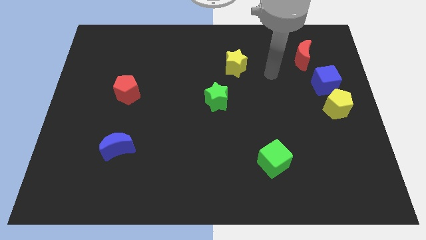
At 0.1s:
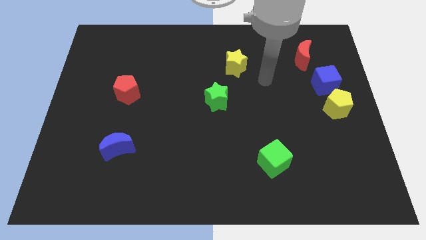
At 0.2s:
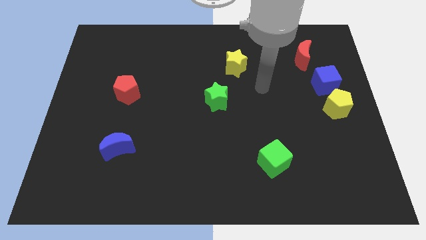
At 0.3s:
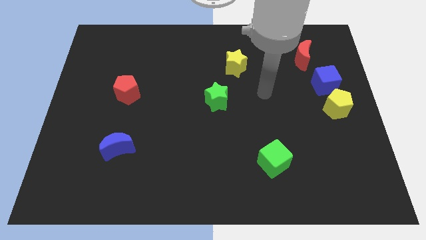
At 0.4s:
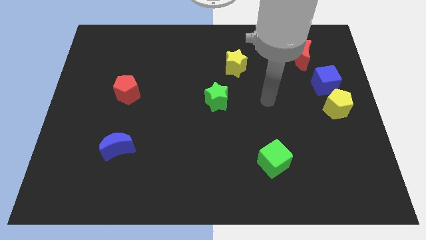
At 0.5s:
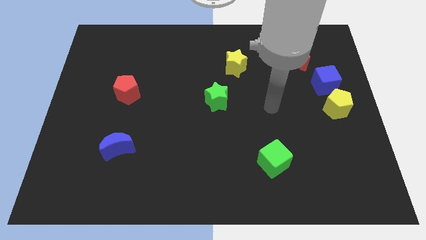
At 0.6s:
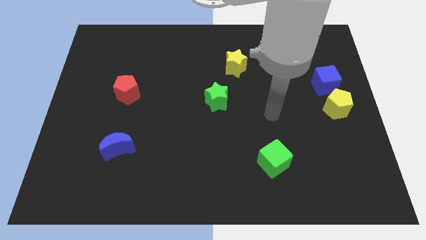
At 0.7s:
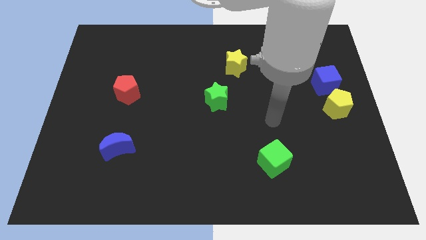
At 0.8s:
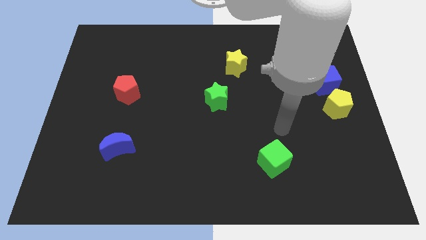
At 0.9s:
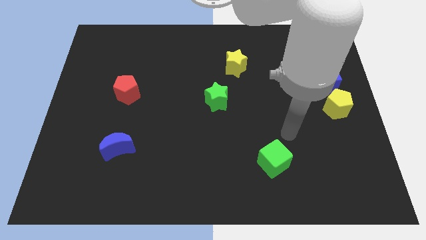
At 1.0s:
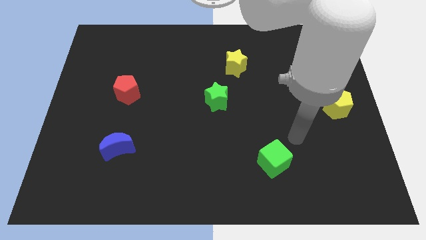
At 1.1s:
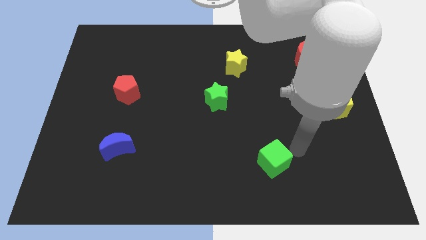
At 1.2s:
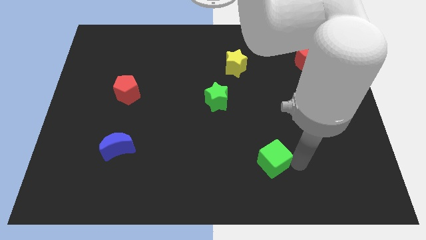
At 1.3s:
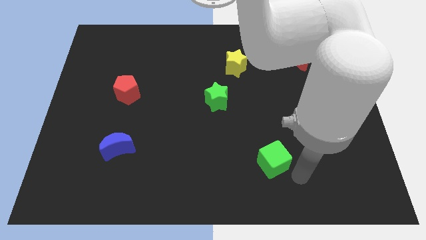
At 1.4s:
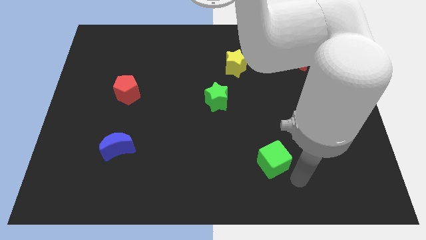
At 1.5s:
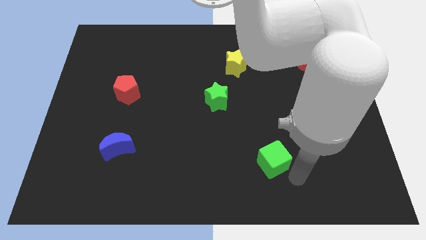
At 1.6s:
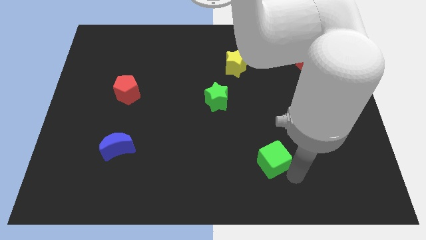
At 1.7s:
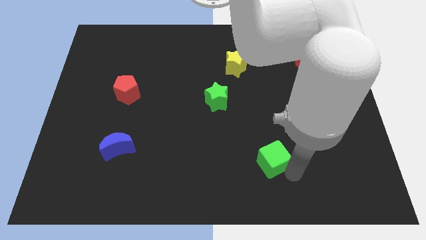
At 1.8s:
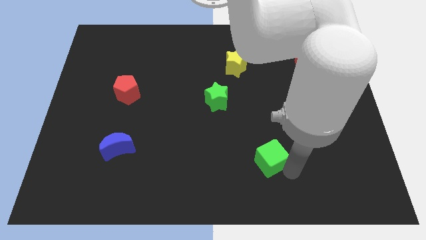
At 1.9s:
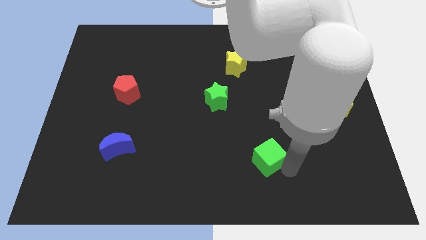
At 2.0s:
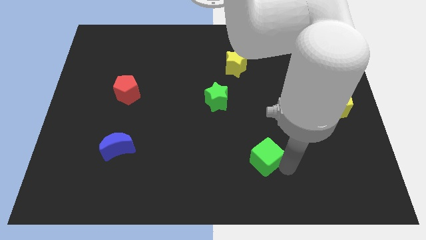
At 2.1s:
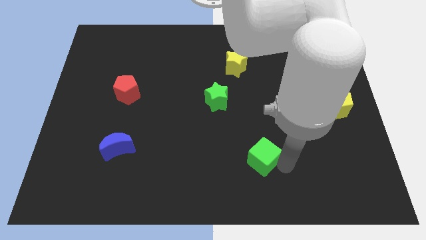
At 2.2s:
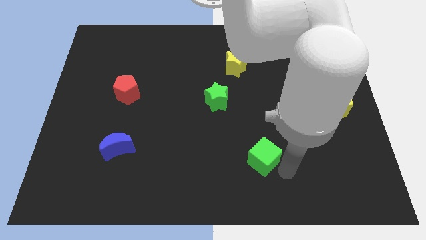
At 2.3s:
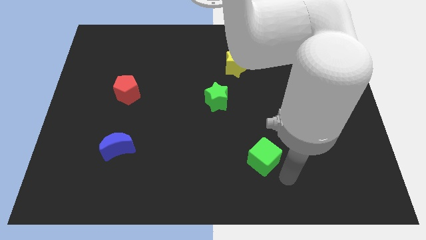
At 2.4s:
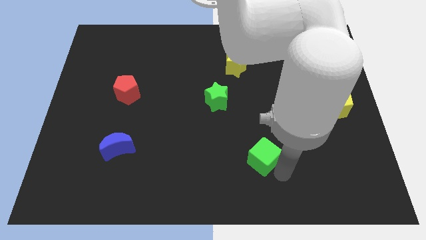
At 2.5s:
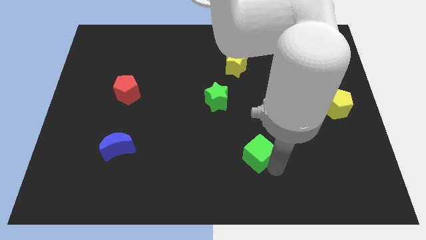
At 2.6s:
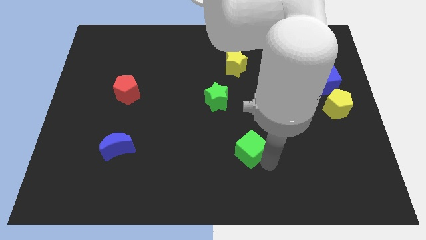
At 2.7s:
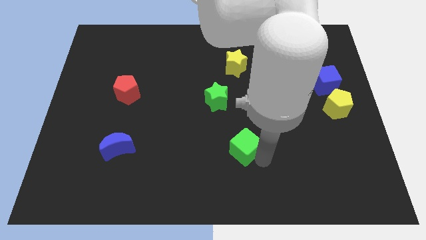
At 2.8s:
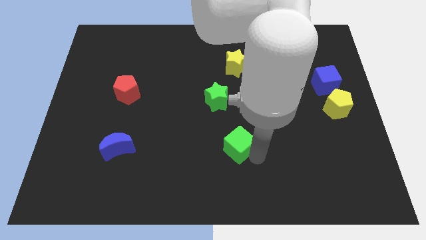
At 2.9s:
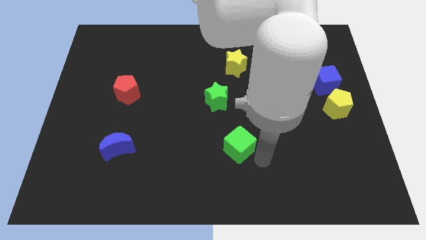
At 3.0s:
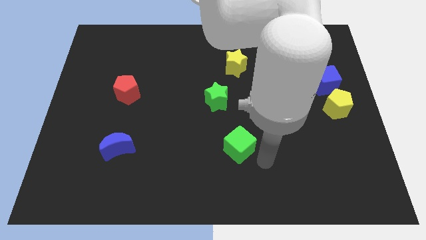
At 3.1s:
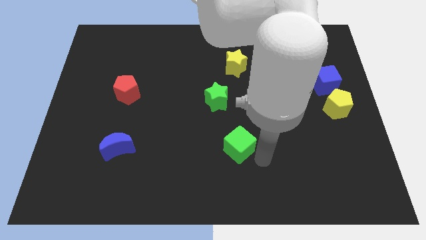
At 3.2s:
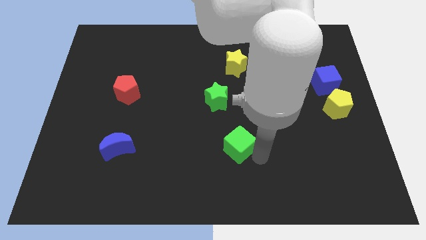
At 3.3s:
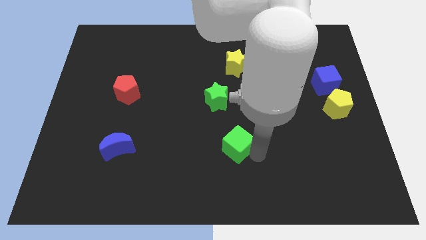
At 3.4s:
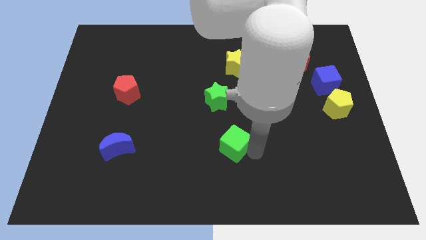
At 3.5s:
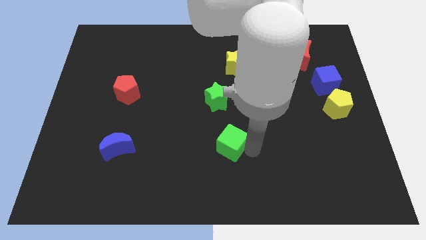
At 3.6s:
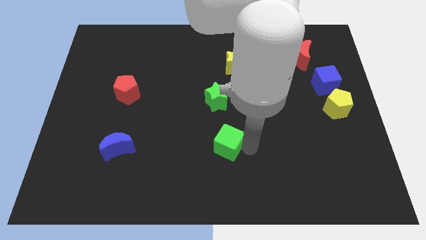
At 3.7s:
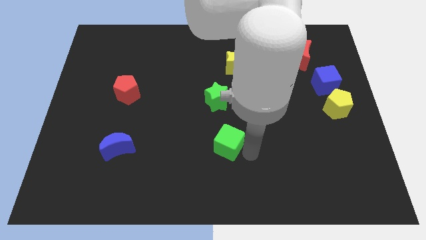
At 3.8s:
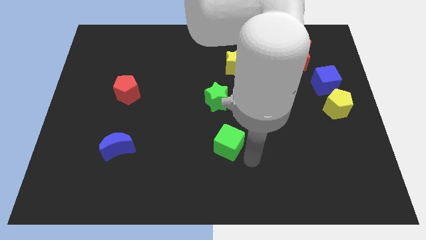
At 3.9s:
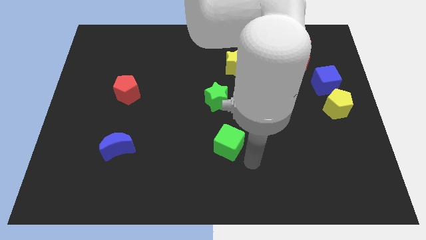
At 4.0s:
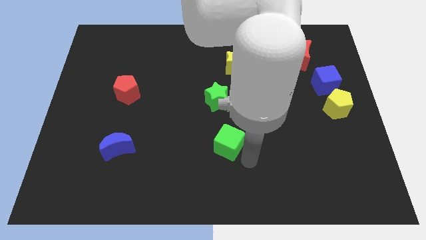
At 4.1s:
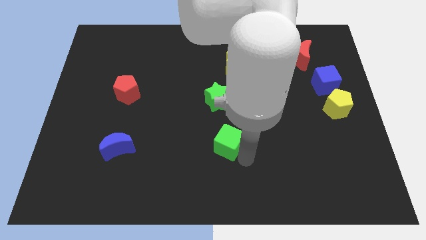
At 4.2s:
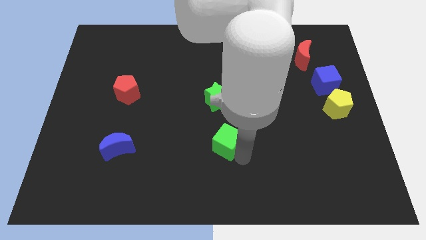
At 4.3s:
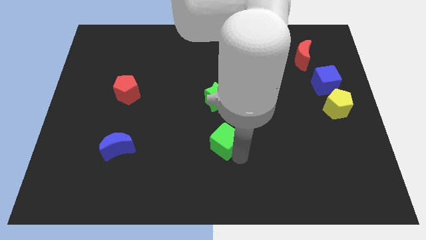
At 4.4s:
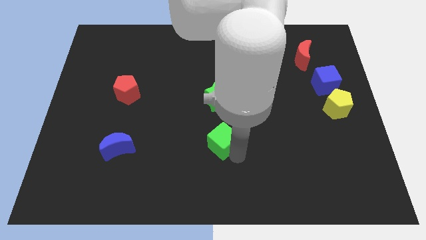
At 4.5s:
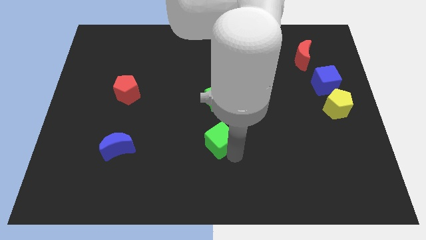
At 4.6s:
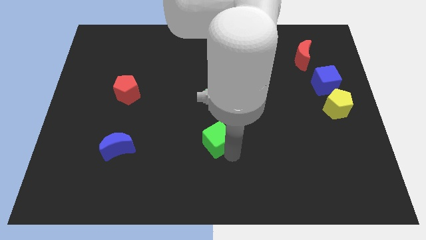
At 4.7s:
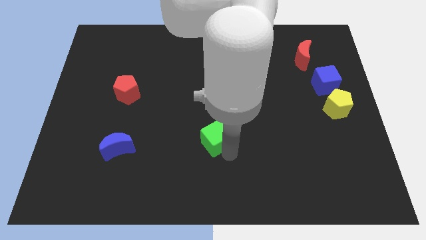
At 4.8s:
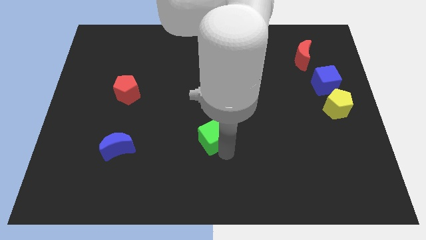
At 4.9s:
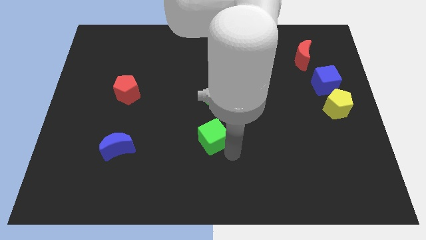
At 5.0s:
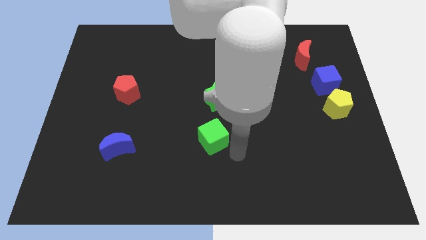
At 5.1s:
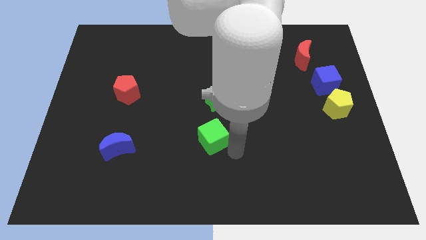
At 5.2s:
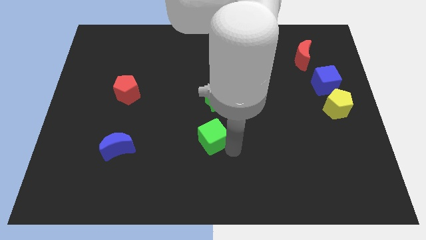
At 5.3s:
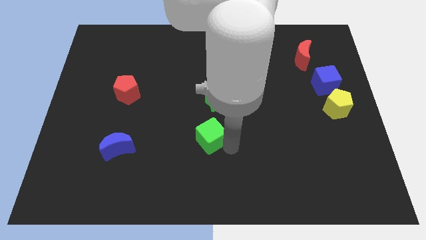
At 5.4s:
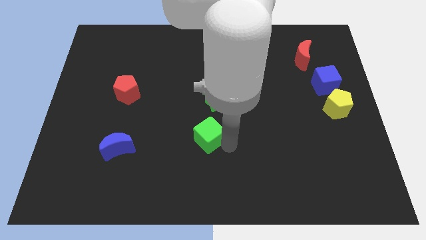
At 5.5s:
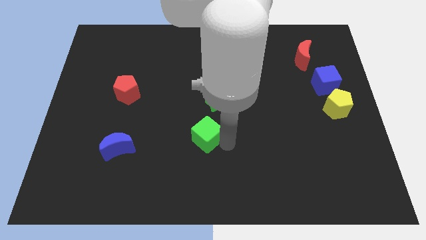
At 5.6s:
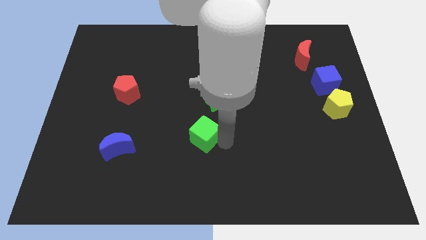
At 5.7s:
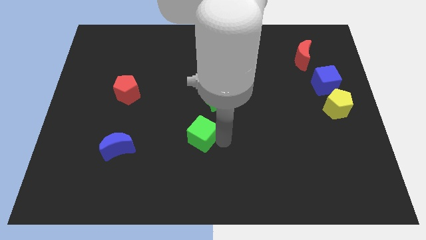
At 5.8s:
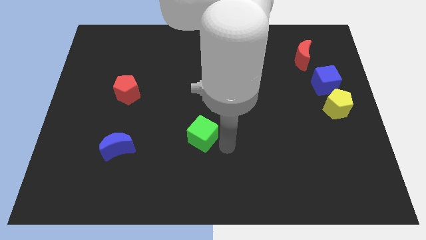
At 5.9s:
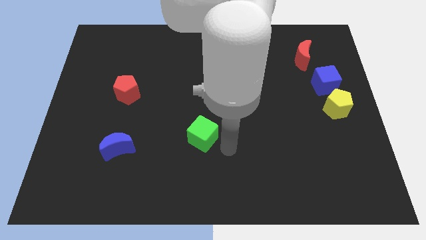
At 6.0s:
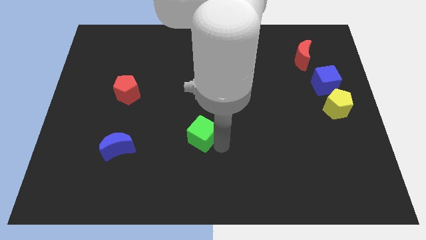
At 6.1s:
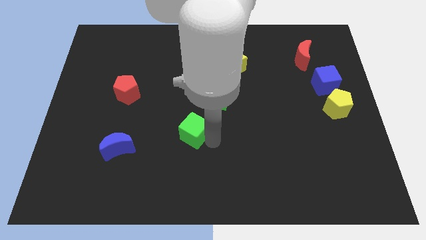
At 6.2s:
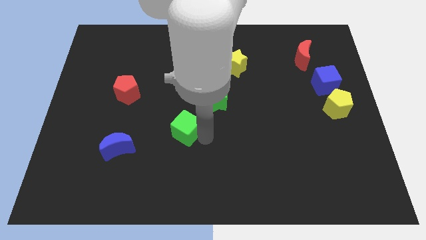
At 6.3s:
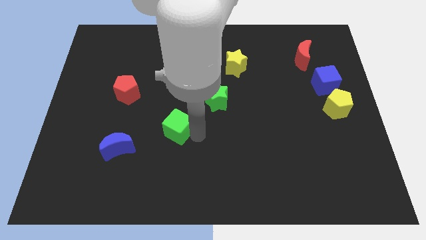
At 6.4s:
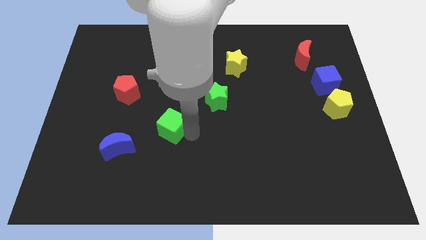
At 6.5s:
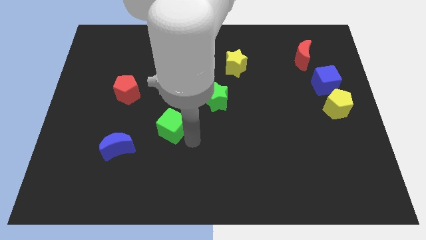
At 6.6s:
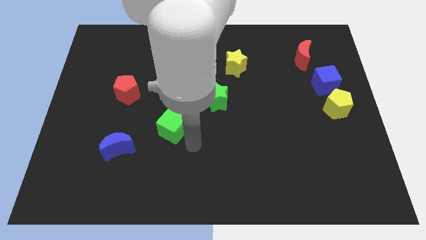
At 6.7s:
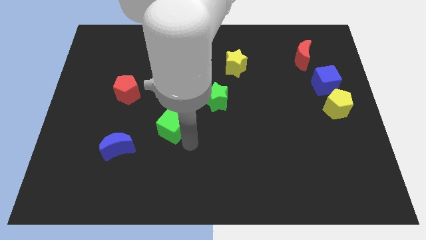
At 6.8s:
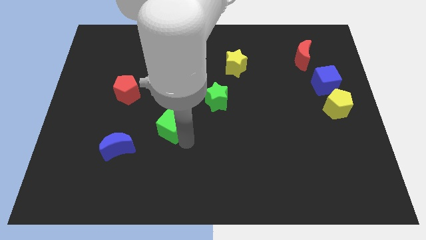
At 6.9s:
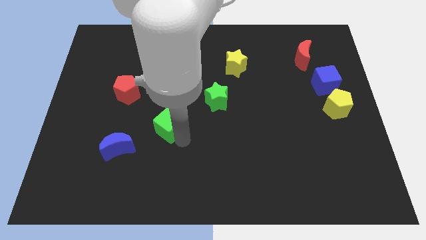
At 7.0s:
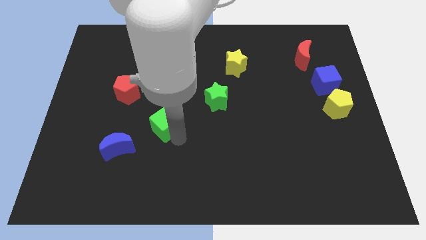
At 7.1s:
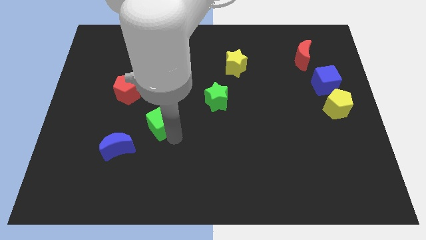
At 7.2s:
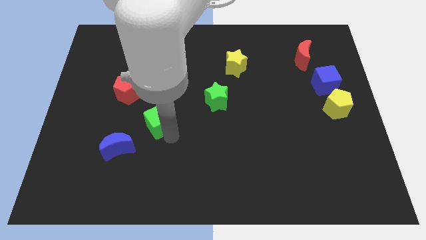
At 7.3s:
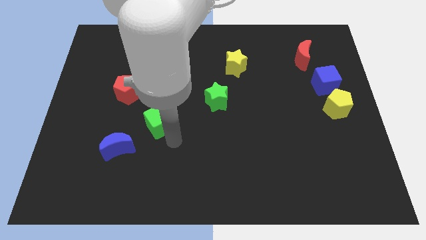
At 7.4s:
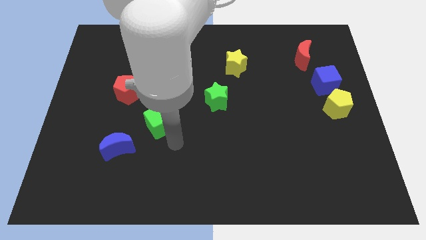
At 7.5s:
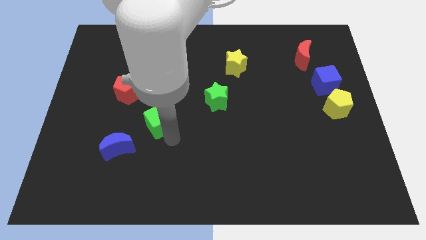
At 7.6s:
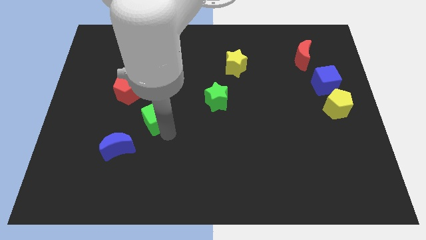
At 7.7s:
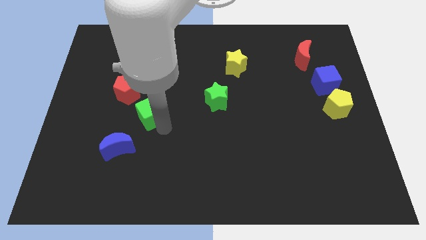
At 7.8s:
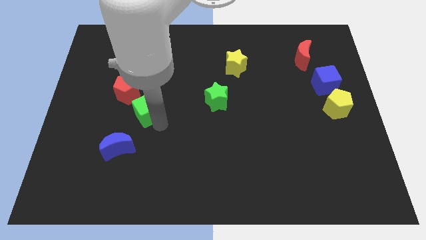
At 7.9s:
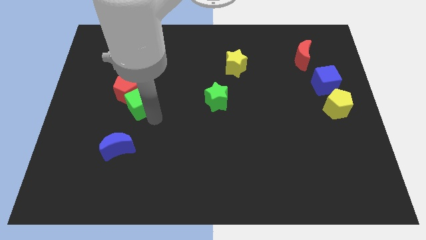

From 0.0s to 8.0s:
slide the green cube towards the red pentagon
